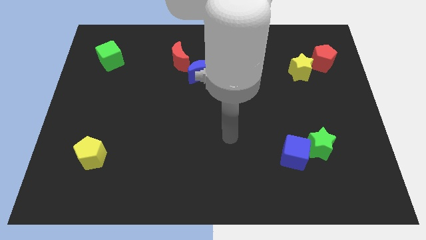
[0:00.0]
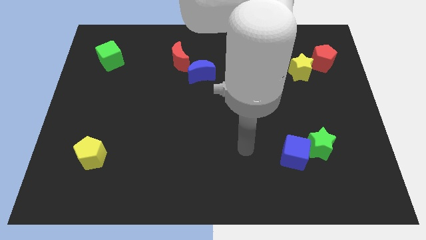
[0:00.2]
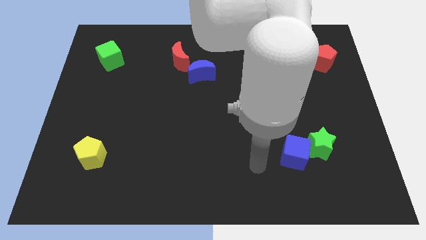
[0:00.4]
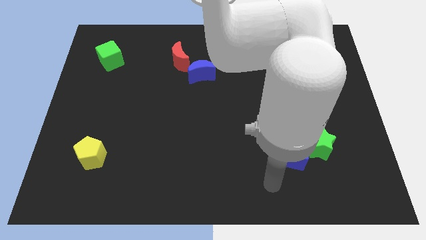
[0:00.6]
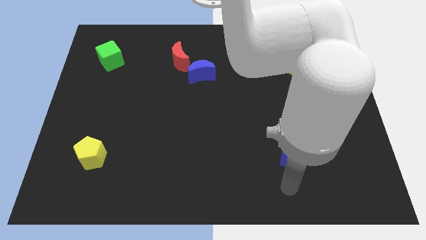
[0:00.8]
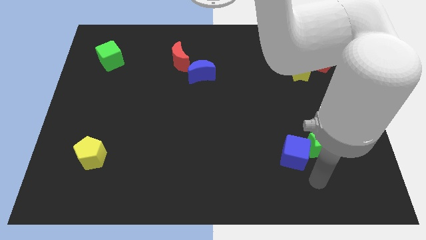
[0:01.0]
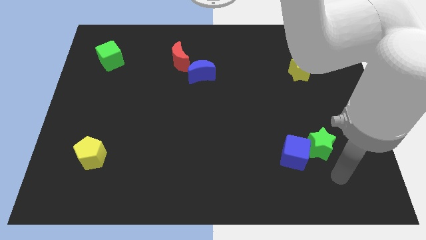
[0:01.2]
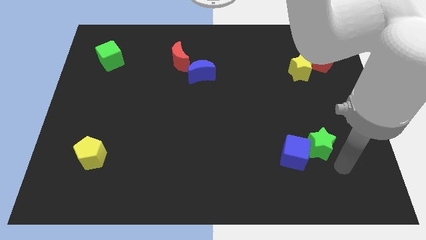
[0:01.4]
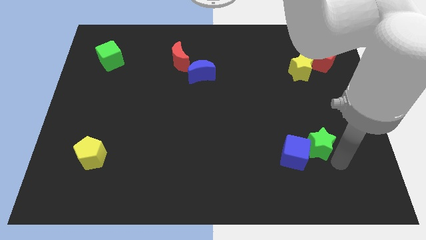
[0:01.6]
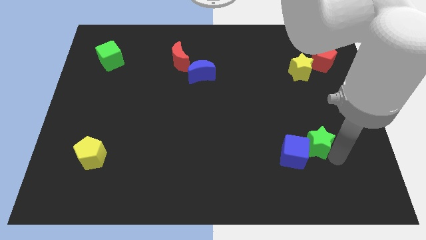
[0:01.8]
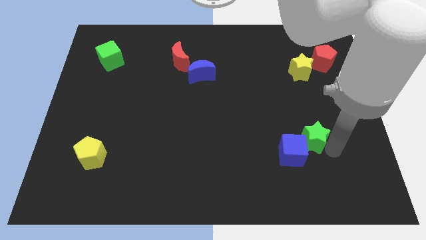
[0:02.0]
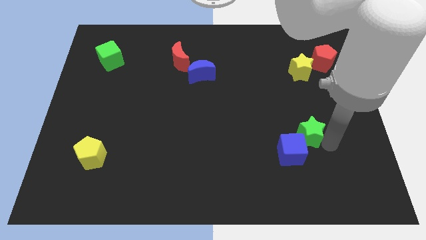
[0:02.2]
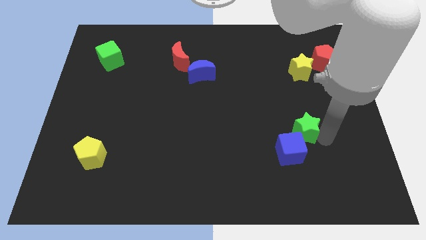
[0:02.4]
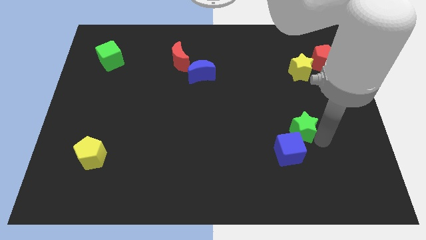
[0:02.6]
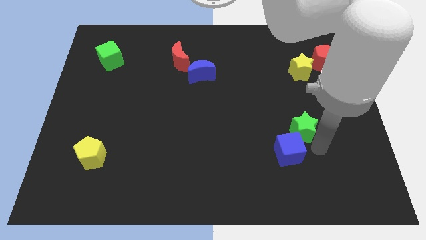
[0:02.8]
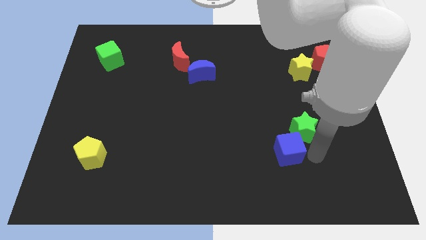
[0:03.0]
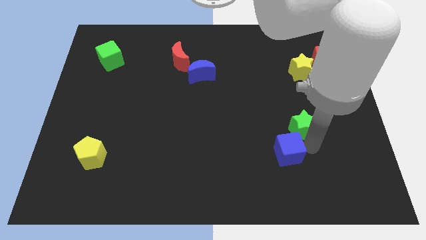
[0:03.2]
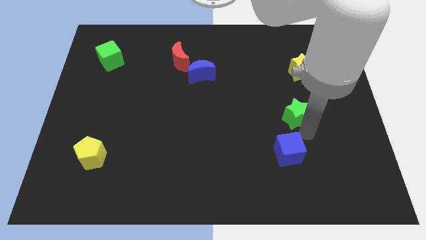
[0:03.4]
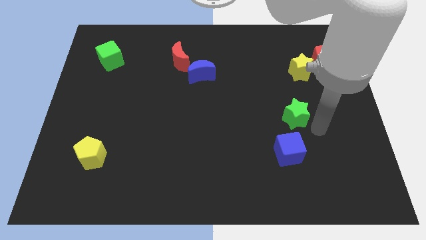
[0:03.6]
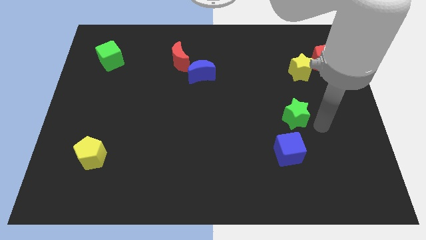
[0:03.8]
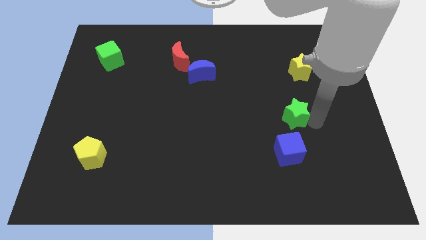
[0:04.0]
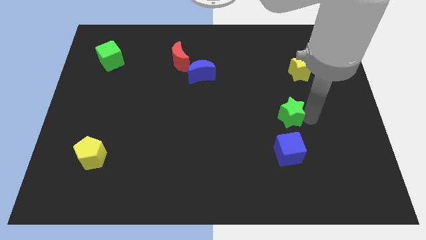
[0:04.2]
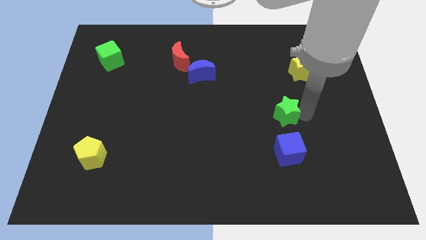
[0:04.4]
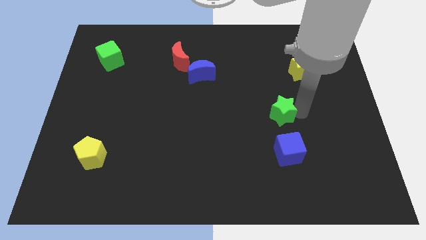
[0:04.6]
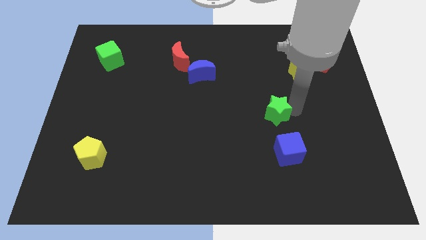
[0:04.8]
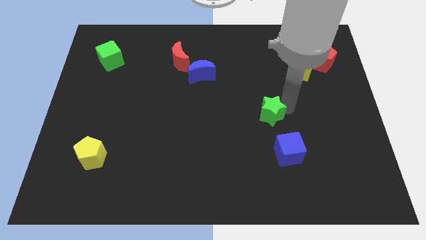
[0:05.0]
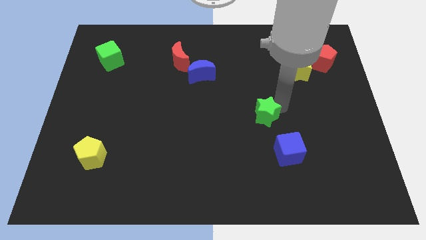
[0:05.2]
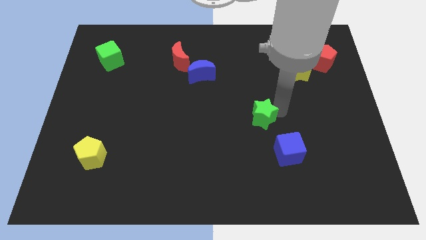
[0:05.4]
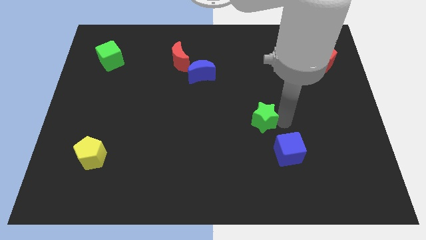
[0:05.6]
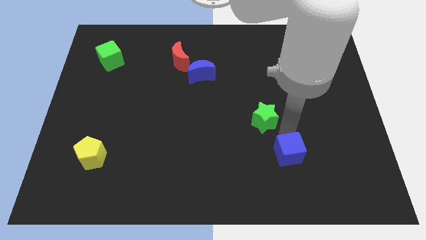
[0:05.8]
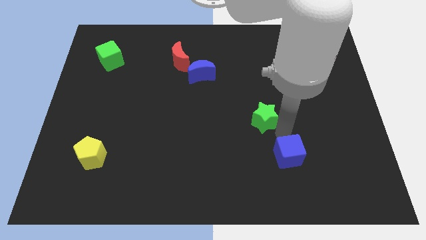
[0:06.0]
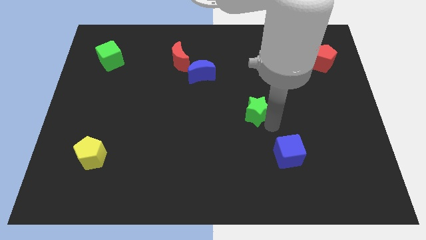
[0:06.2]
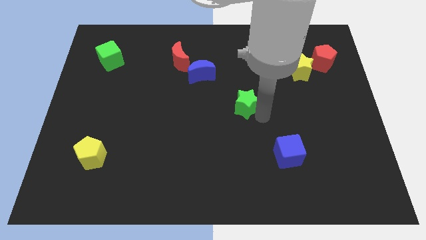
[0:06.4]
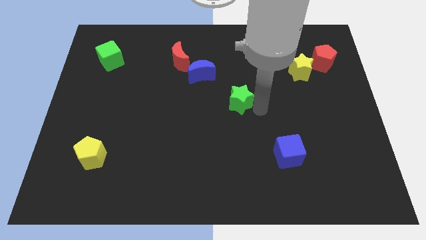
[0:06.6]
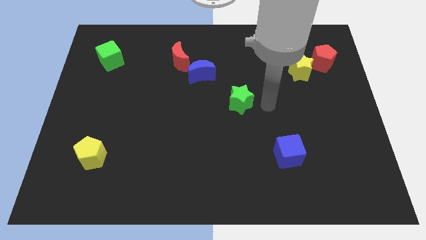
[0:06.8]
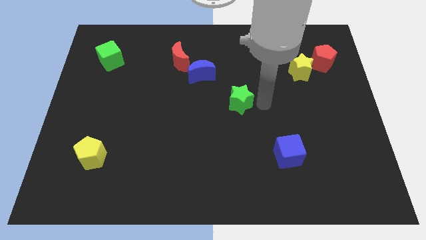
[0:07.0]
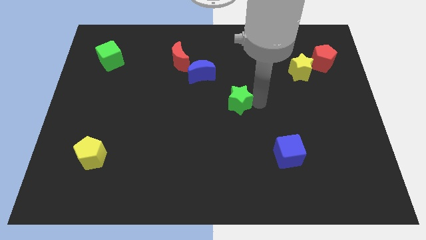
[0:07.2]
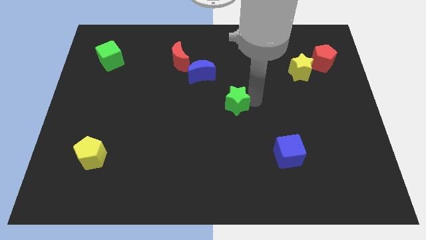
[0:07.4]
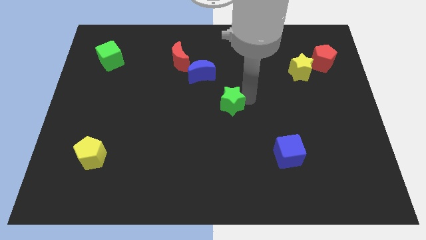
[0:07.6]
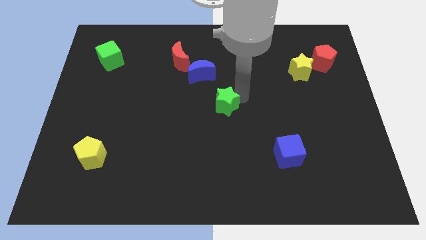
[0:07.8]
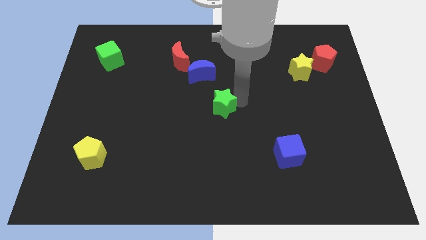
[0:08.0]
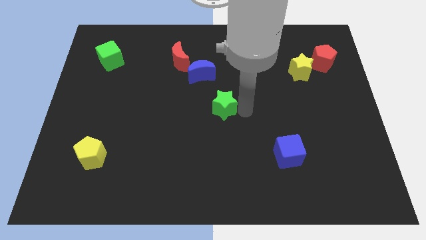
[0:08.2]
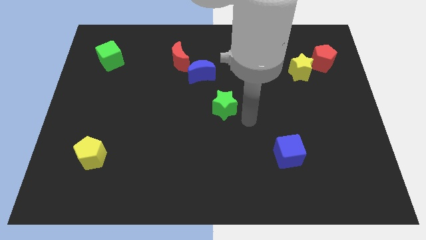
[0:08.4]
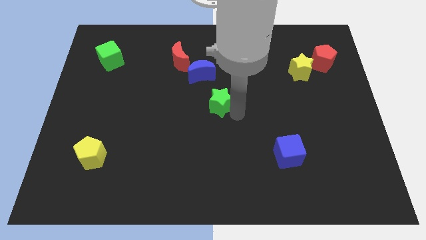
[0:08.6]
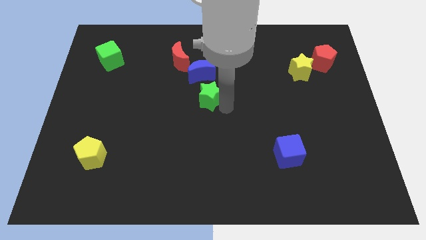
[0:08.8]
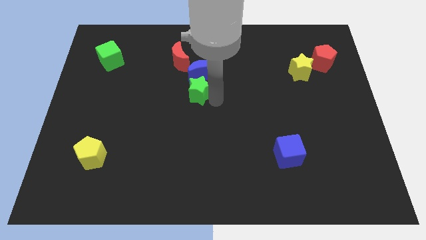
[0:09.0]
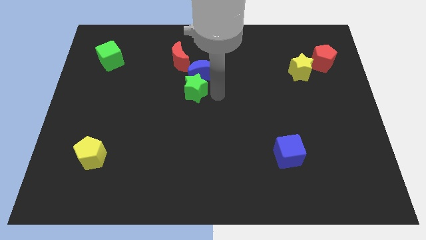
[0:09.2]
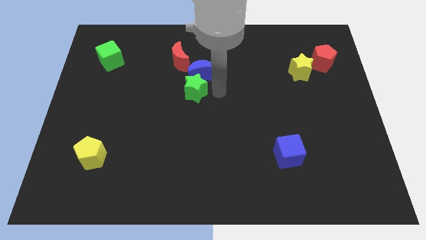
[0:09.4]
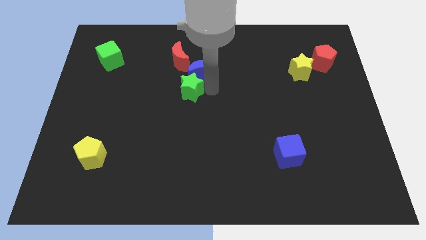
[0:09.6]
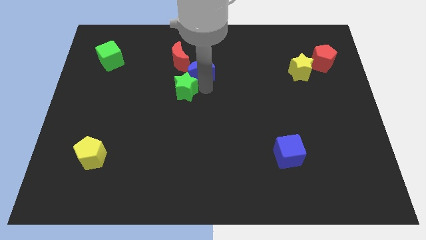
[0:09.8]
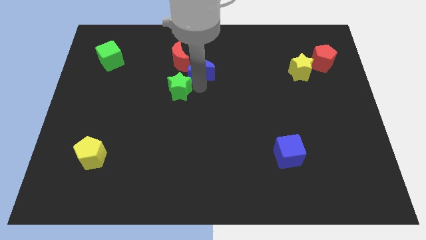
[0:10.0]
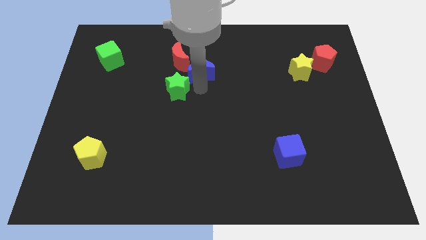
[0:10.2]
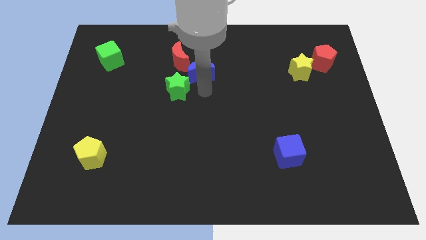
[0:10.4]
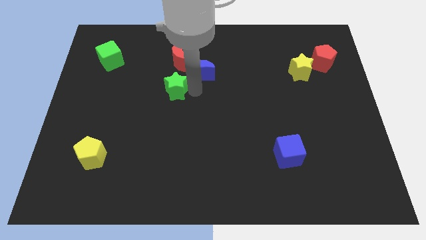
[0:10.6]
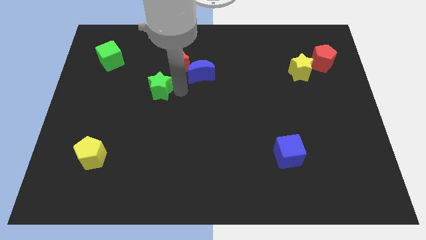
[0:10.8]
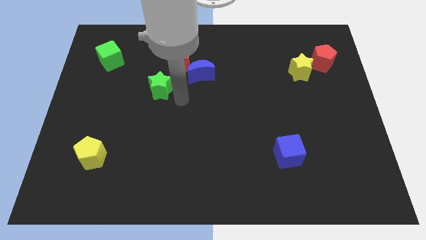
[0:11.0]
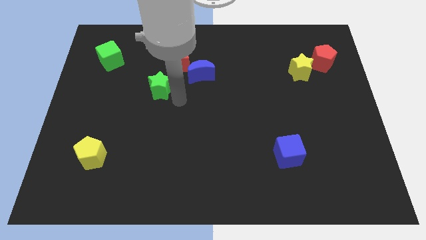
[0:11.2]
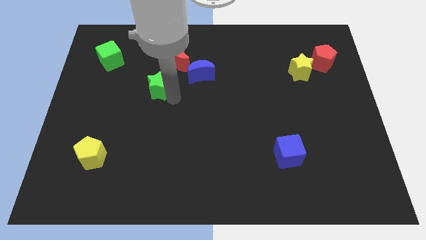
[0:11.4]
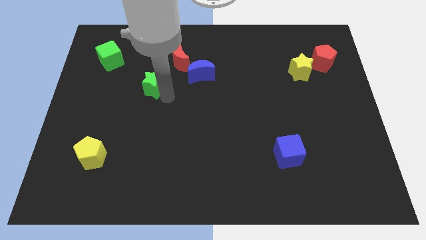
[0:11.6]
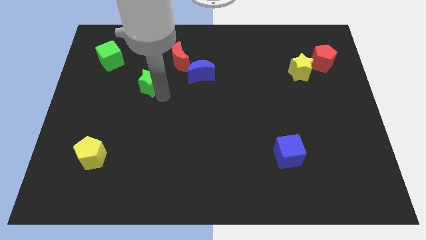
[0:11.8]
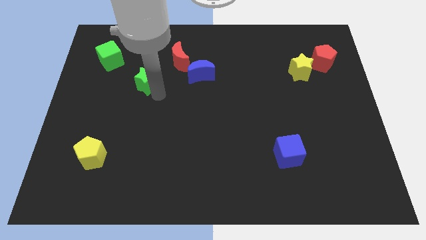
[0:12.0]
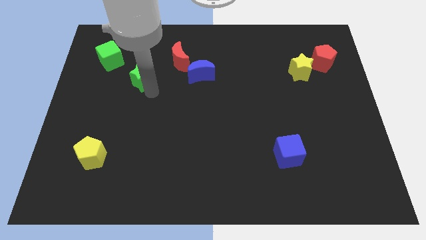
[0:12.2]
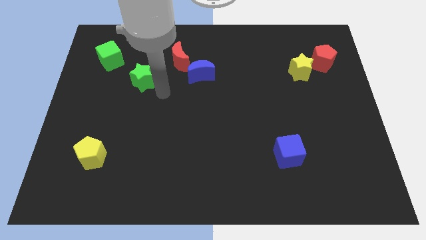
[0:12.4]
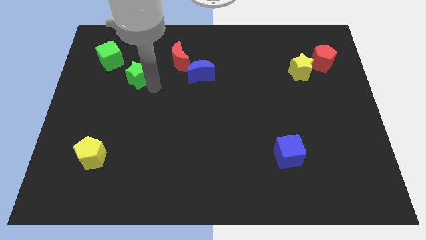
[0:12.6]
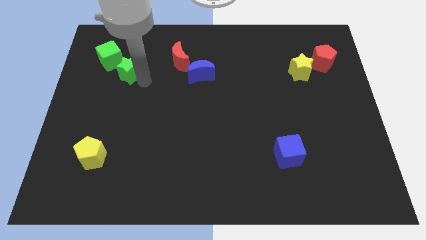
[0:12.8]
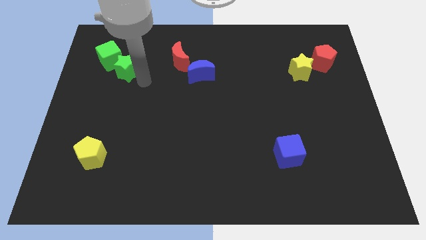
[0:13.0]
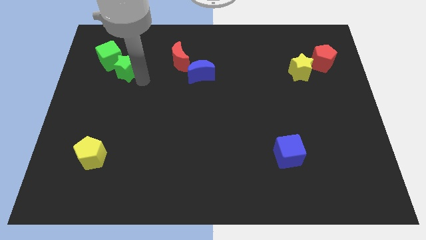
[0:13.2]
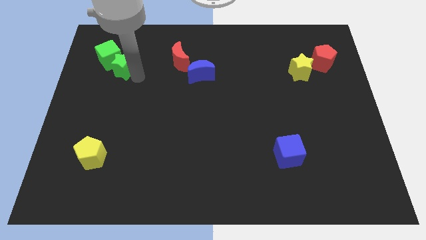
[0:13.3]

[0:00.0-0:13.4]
move the green star close to the green cube
